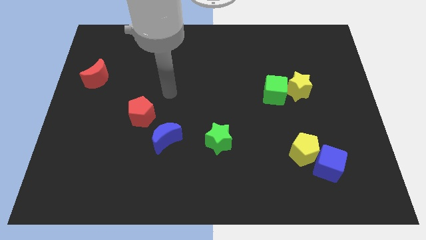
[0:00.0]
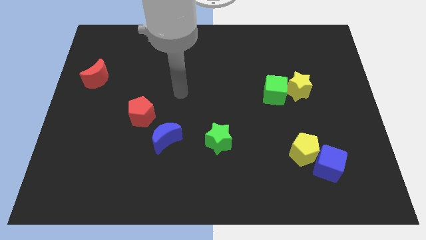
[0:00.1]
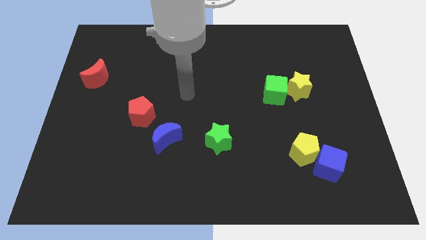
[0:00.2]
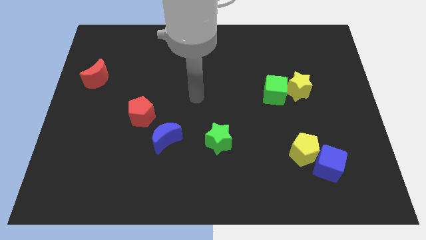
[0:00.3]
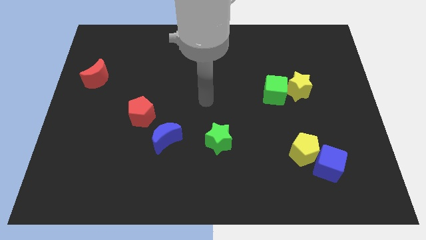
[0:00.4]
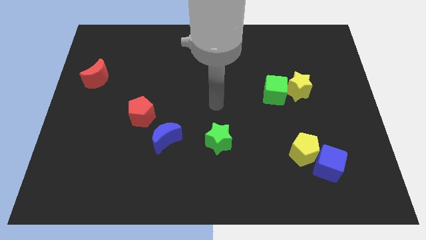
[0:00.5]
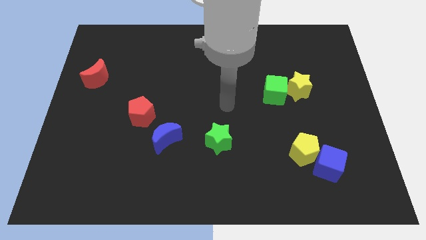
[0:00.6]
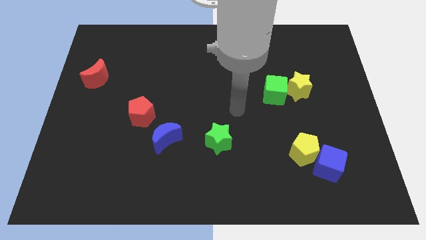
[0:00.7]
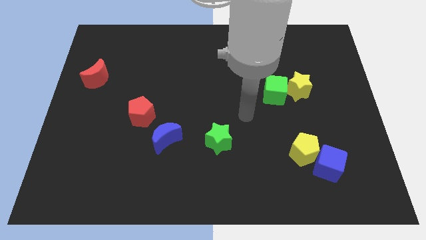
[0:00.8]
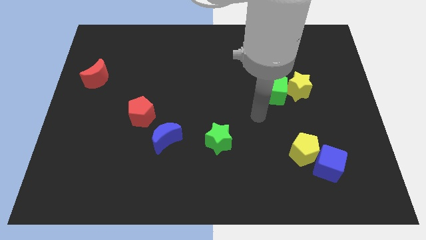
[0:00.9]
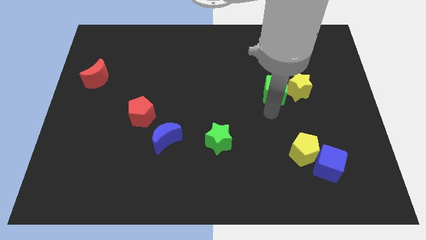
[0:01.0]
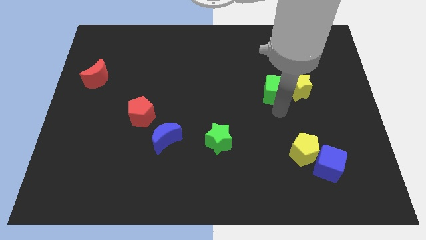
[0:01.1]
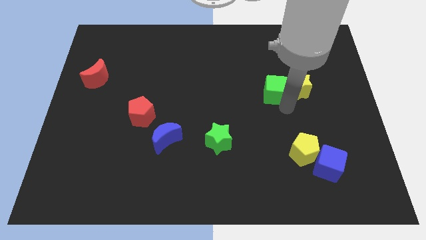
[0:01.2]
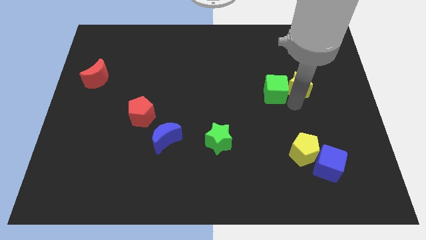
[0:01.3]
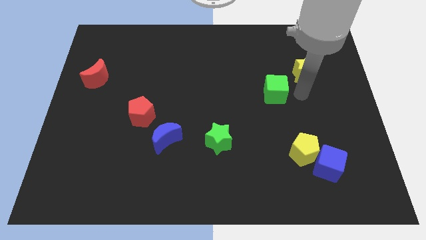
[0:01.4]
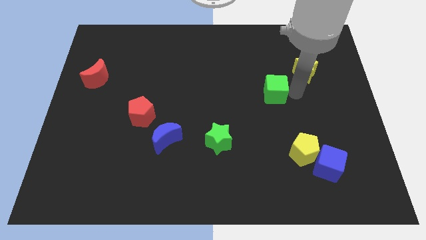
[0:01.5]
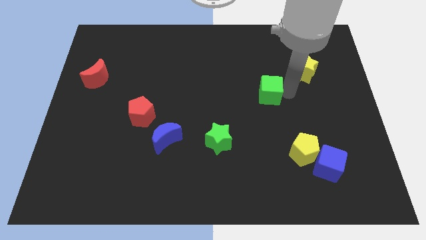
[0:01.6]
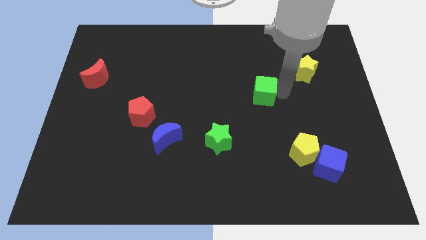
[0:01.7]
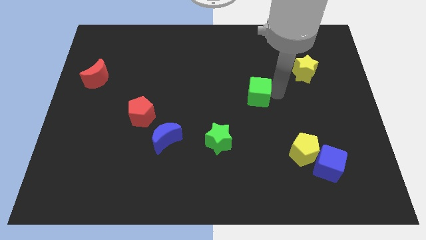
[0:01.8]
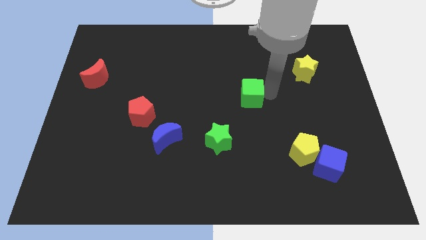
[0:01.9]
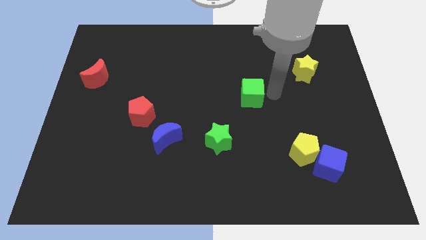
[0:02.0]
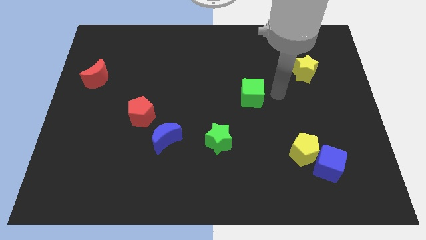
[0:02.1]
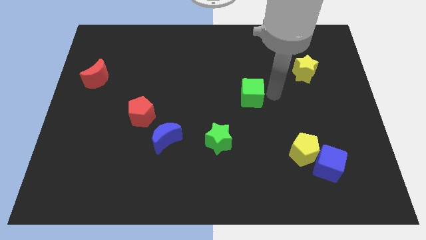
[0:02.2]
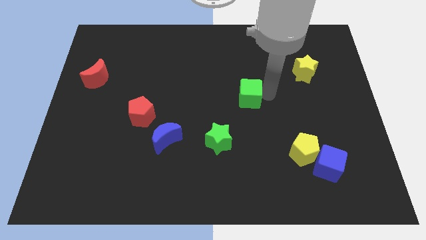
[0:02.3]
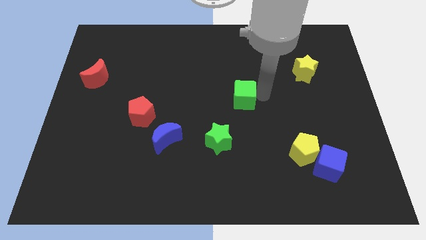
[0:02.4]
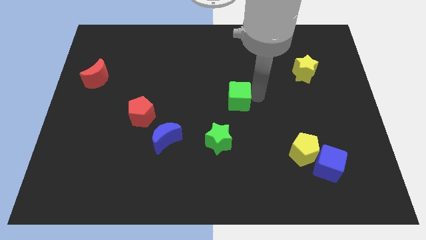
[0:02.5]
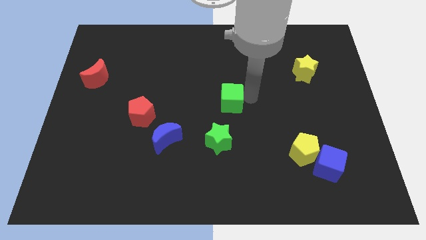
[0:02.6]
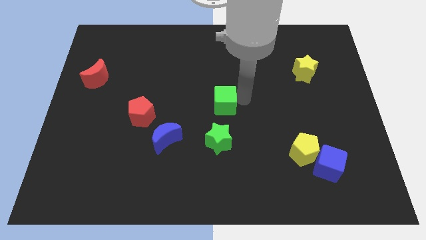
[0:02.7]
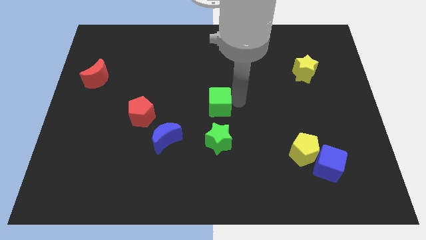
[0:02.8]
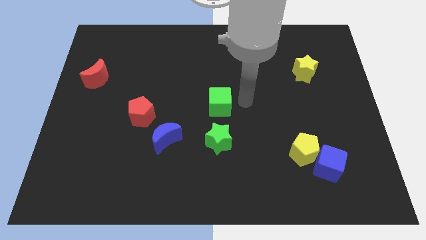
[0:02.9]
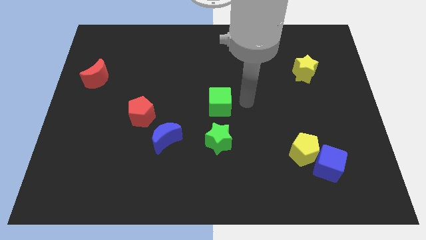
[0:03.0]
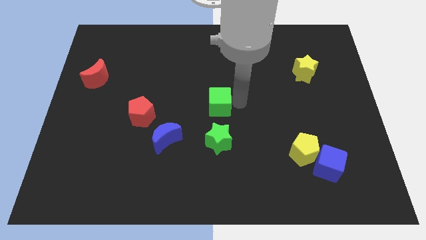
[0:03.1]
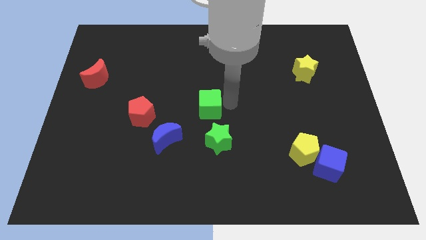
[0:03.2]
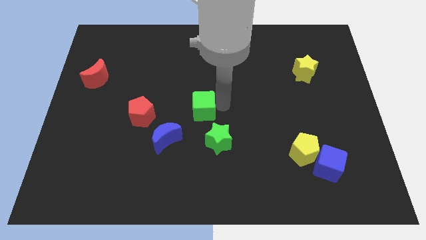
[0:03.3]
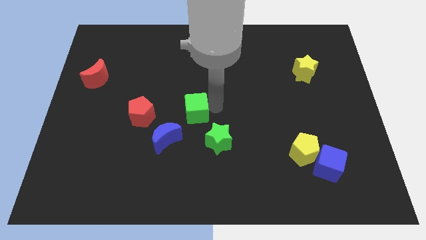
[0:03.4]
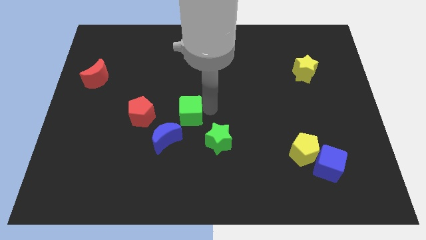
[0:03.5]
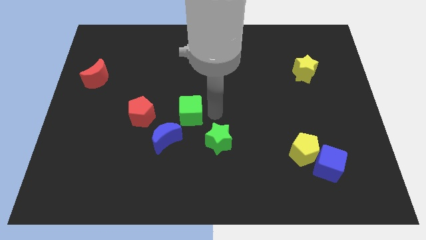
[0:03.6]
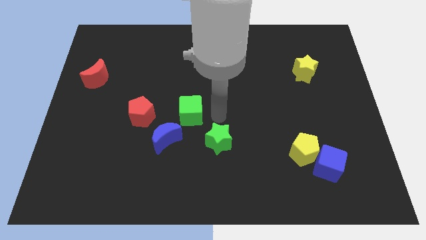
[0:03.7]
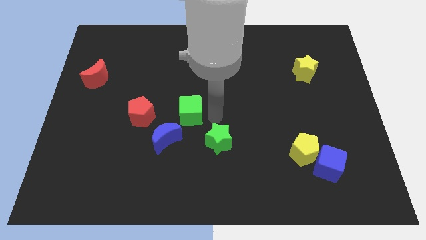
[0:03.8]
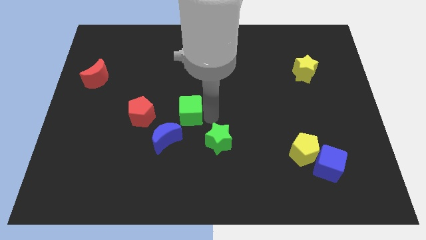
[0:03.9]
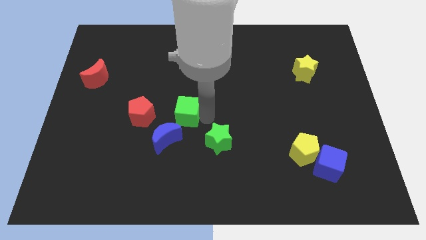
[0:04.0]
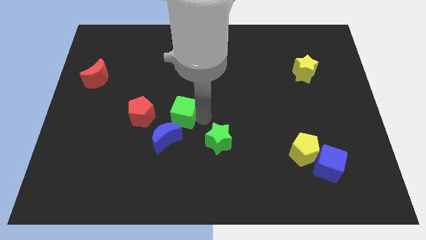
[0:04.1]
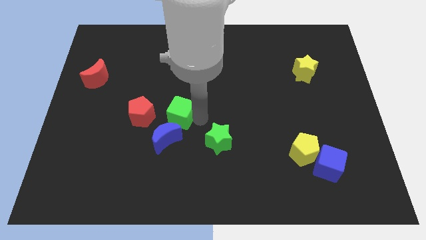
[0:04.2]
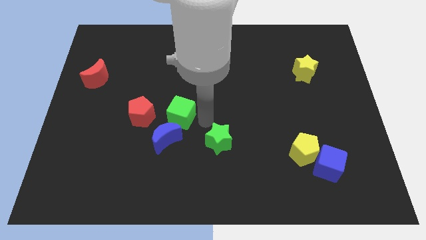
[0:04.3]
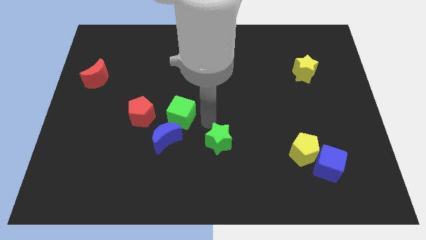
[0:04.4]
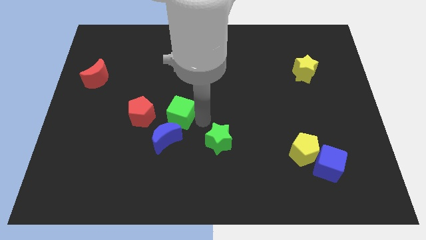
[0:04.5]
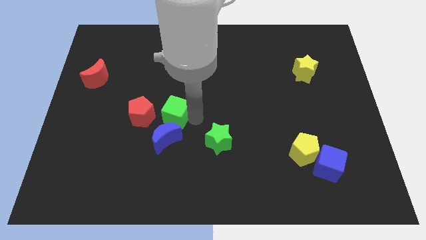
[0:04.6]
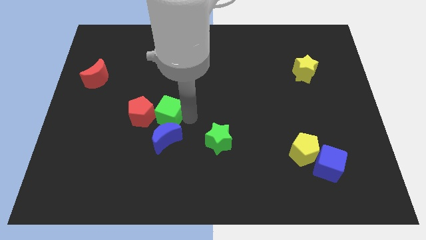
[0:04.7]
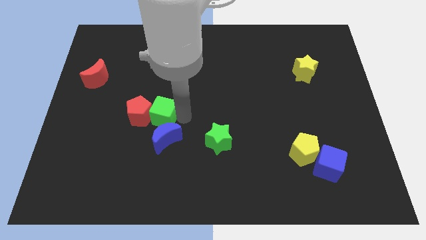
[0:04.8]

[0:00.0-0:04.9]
put the green cube next to the red pentagon

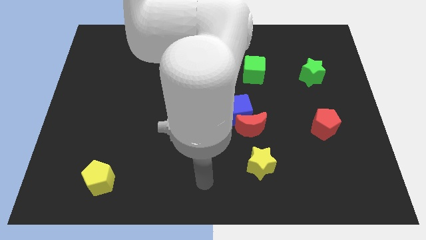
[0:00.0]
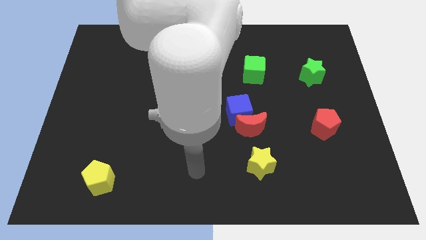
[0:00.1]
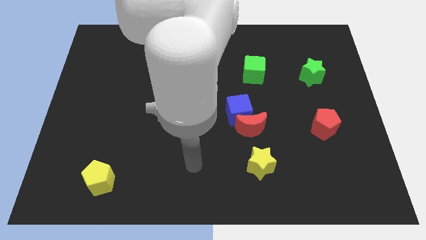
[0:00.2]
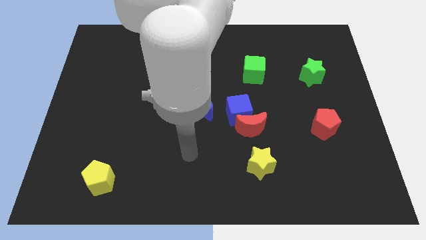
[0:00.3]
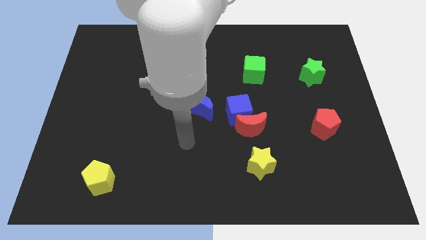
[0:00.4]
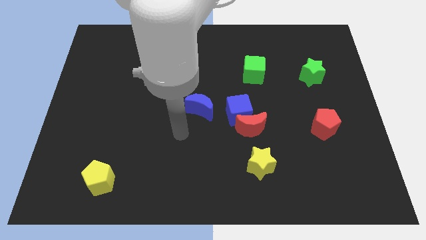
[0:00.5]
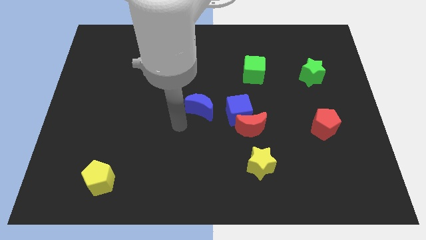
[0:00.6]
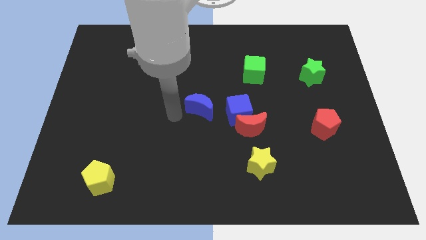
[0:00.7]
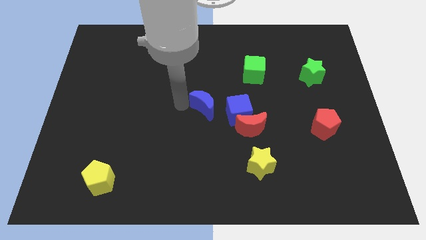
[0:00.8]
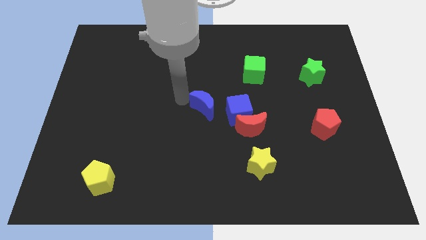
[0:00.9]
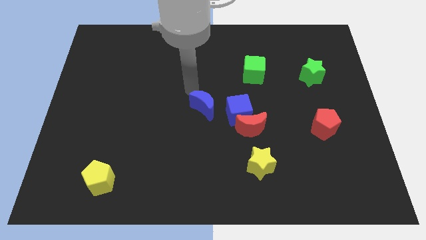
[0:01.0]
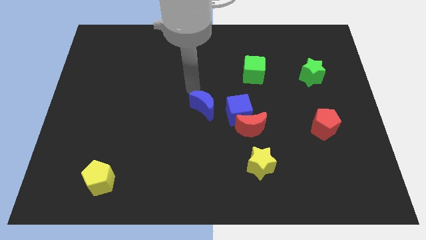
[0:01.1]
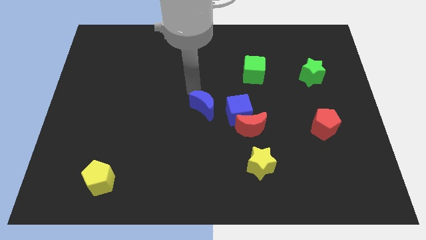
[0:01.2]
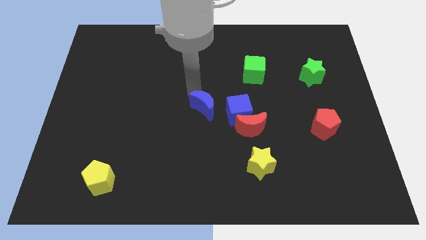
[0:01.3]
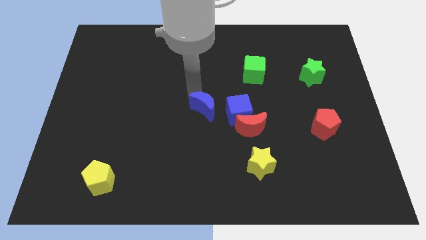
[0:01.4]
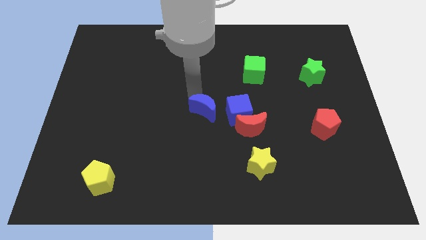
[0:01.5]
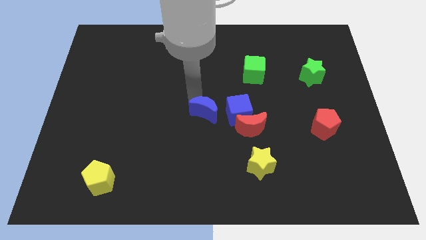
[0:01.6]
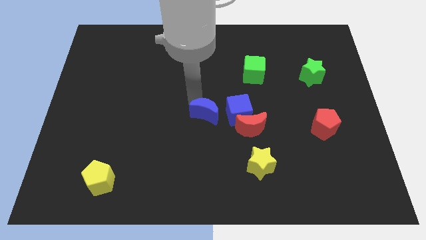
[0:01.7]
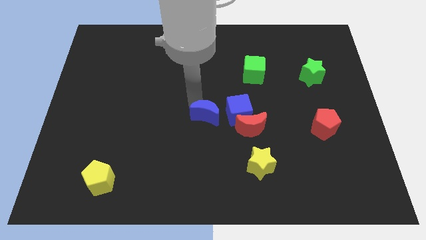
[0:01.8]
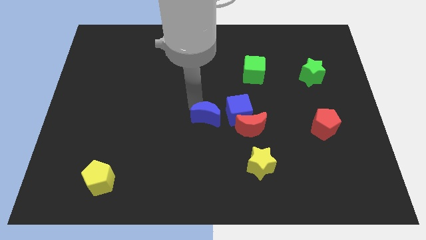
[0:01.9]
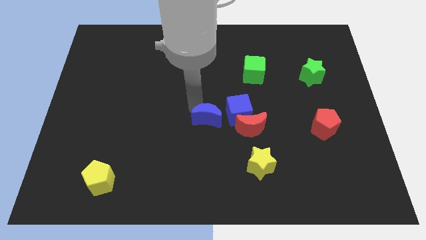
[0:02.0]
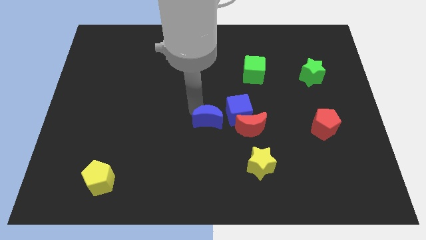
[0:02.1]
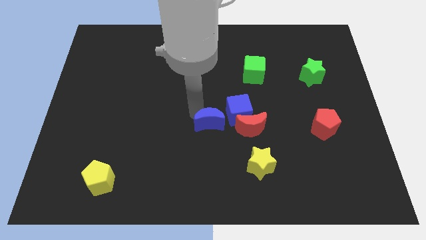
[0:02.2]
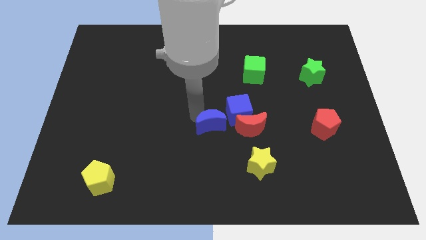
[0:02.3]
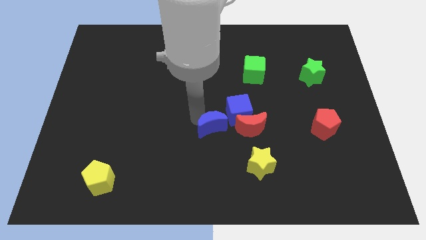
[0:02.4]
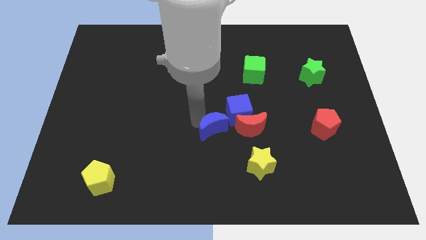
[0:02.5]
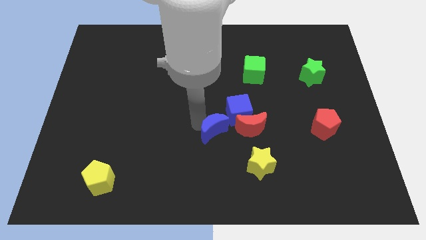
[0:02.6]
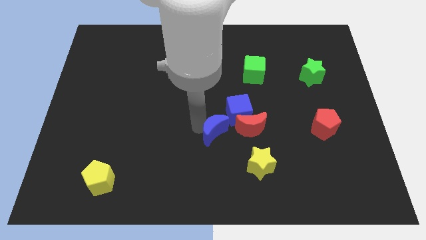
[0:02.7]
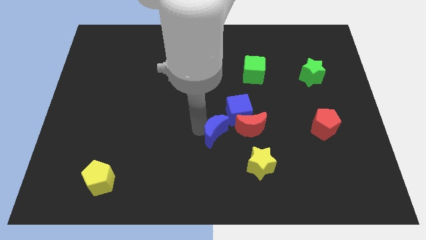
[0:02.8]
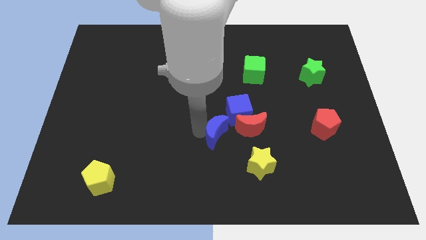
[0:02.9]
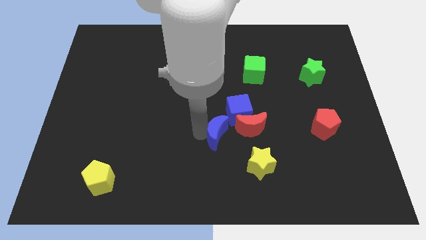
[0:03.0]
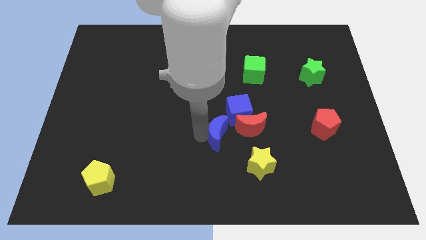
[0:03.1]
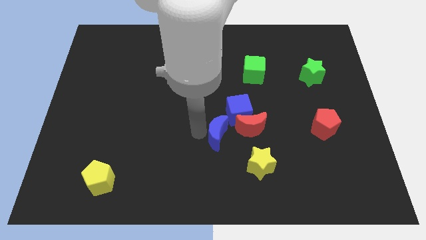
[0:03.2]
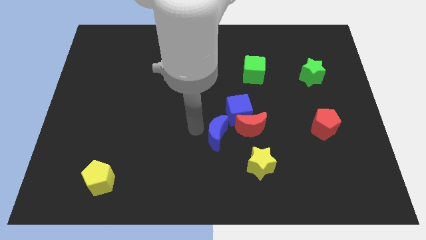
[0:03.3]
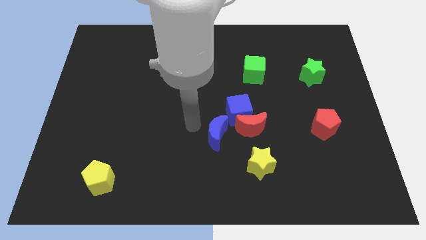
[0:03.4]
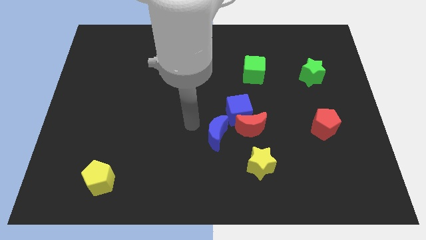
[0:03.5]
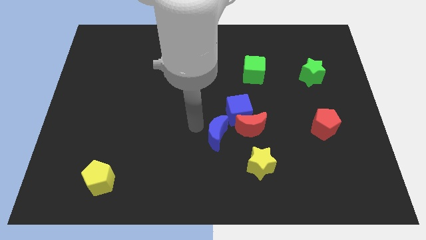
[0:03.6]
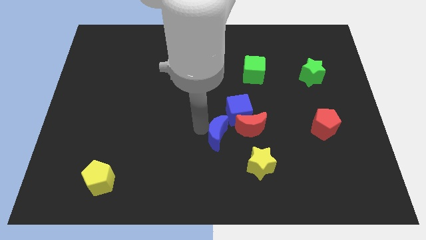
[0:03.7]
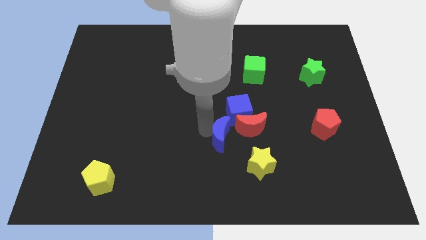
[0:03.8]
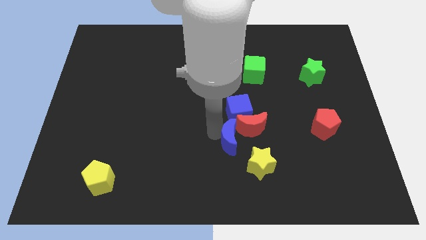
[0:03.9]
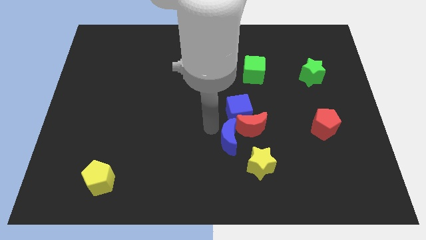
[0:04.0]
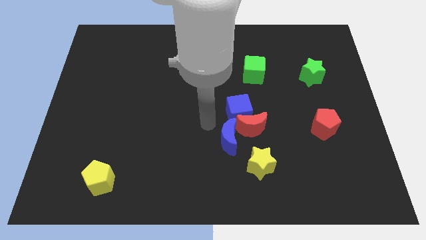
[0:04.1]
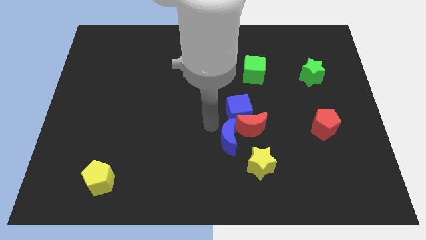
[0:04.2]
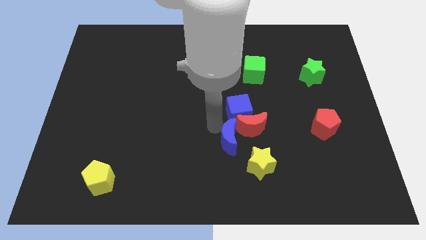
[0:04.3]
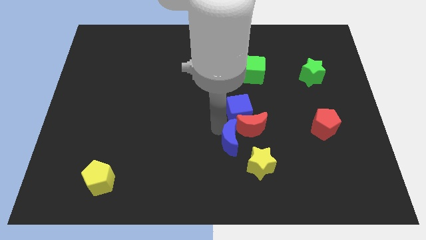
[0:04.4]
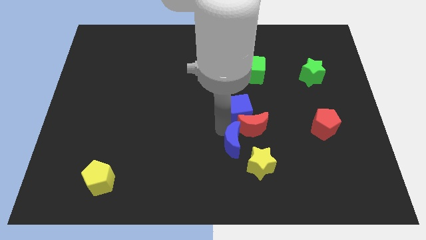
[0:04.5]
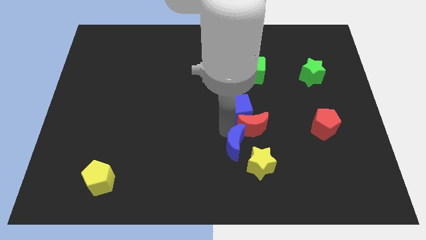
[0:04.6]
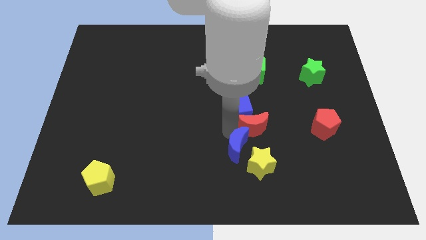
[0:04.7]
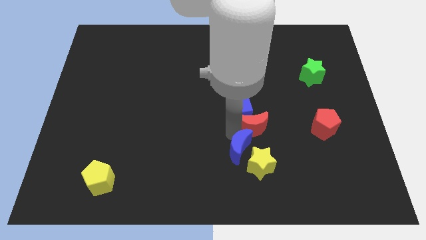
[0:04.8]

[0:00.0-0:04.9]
move the blue moon to the yellow star
